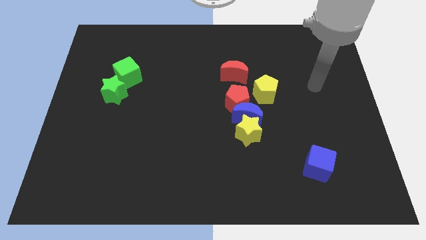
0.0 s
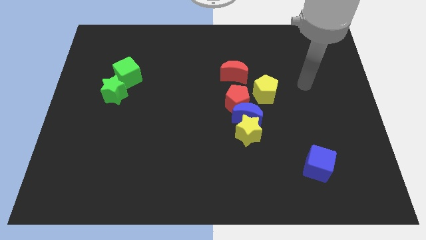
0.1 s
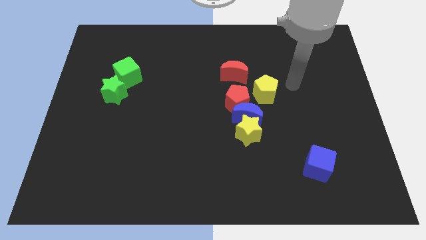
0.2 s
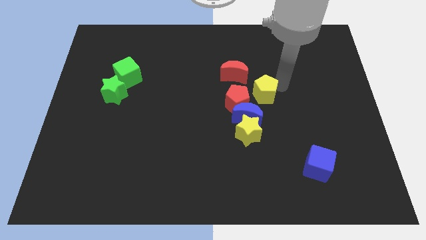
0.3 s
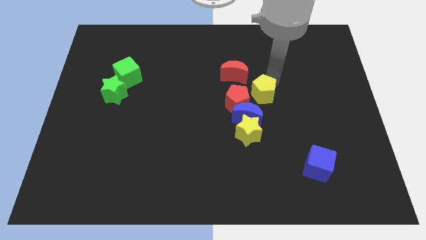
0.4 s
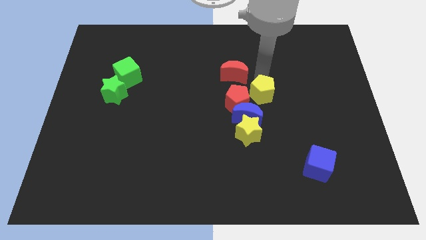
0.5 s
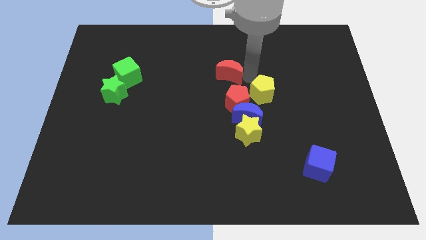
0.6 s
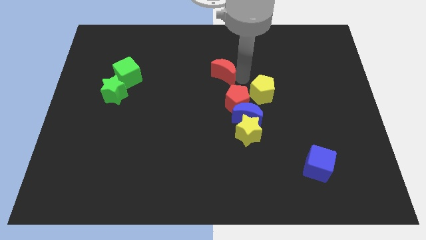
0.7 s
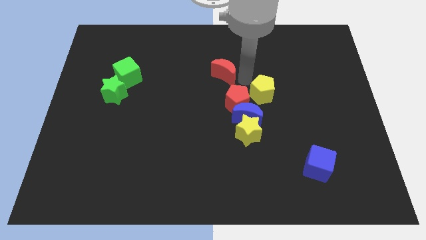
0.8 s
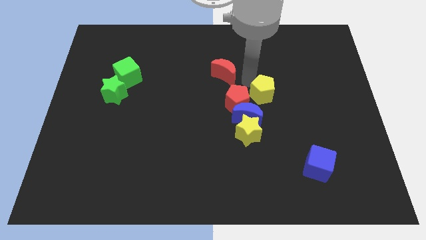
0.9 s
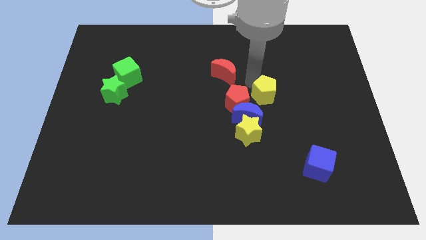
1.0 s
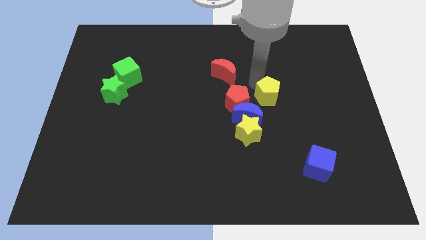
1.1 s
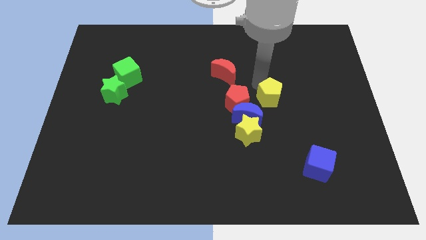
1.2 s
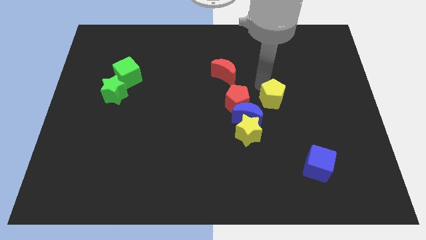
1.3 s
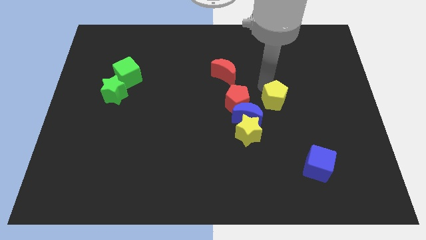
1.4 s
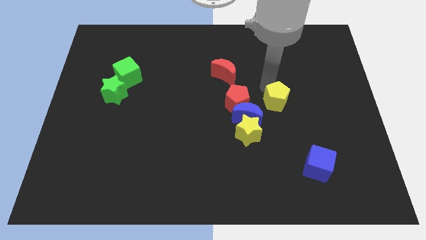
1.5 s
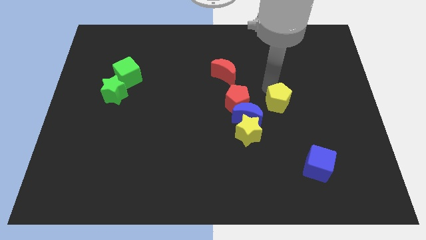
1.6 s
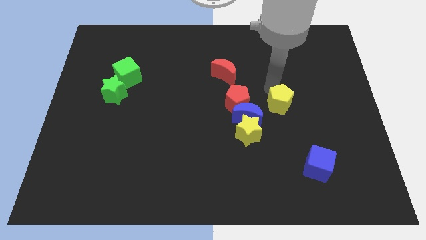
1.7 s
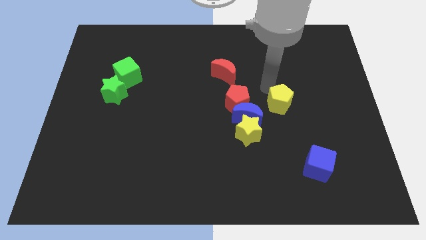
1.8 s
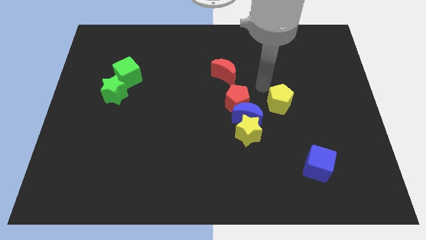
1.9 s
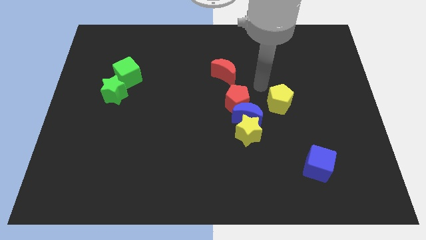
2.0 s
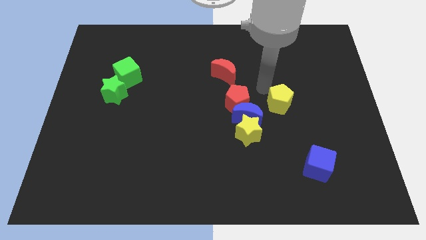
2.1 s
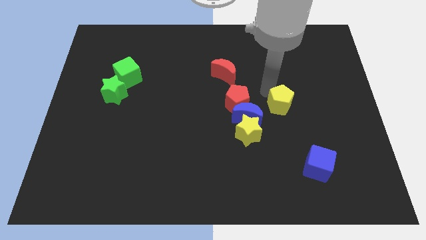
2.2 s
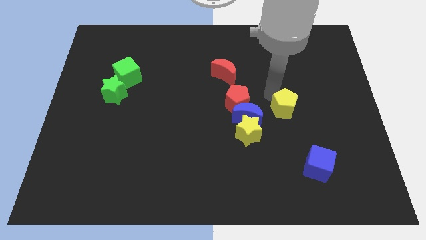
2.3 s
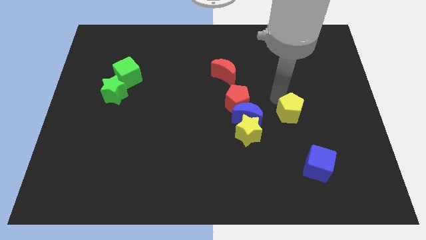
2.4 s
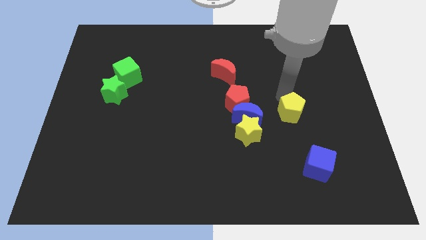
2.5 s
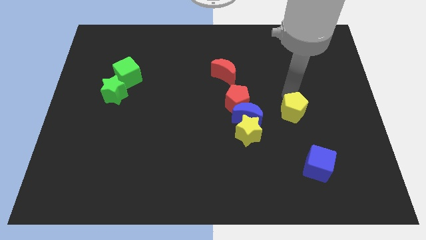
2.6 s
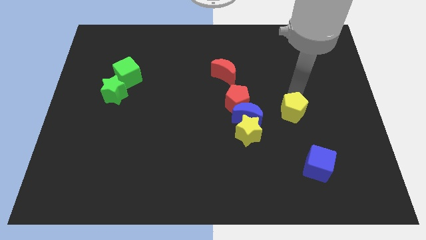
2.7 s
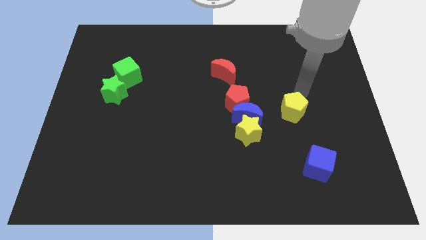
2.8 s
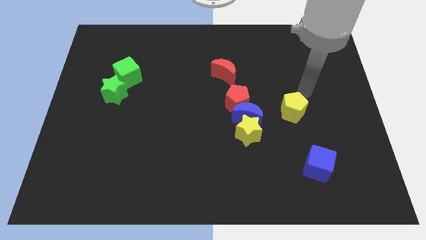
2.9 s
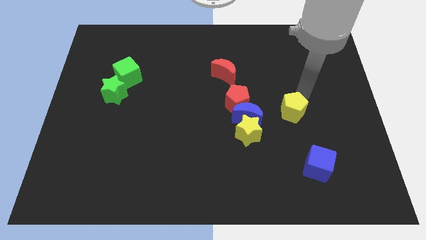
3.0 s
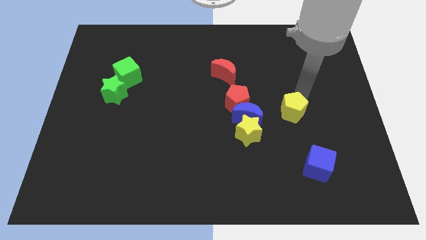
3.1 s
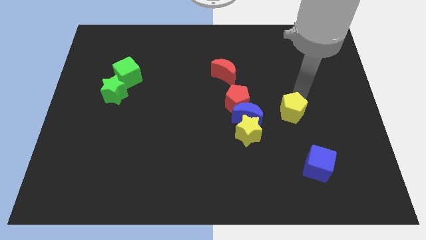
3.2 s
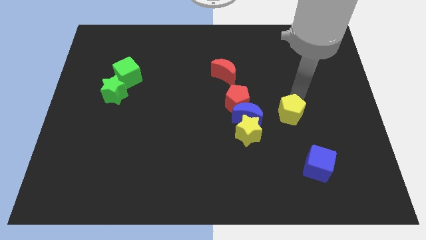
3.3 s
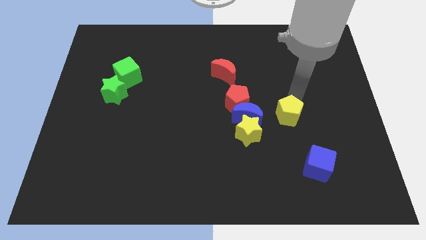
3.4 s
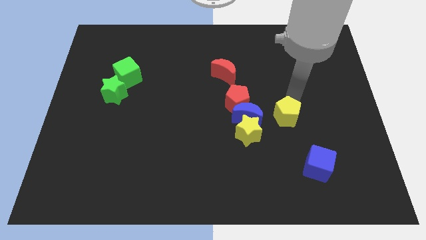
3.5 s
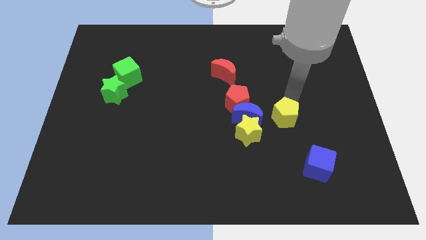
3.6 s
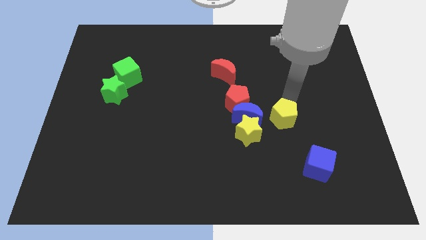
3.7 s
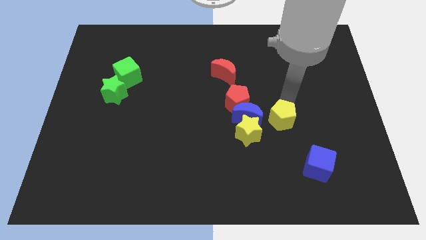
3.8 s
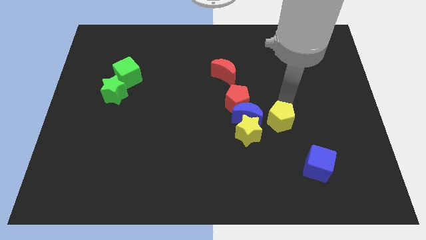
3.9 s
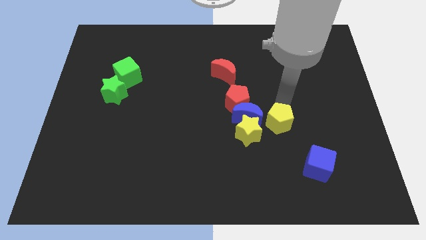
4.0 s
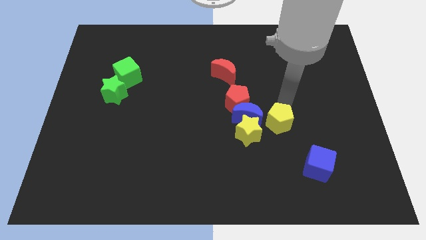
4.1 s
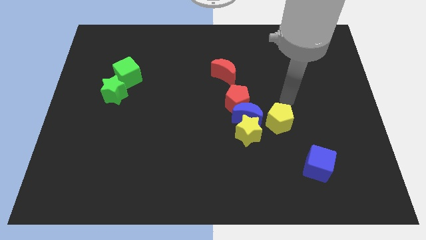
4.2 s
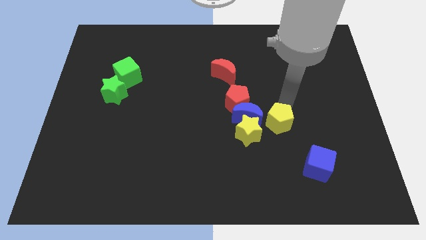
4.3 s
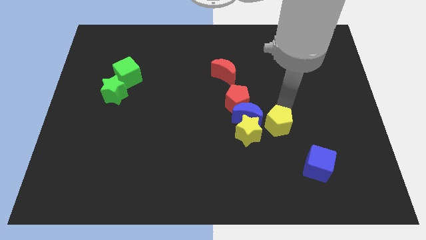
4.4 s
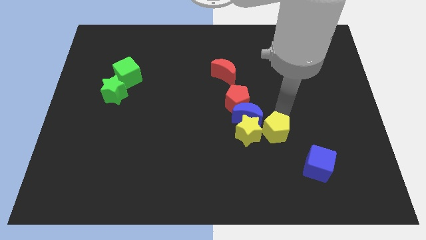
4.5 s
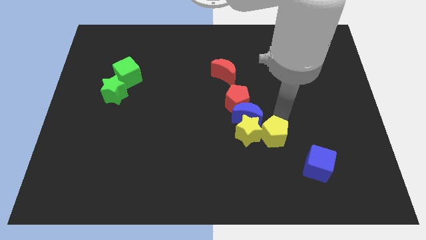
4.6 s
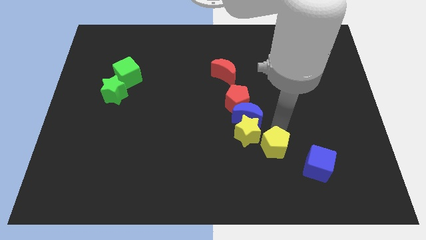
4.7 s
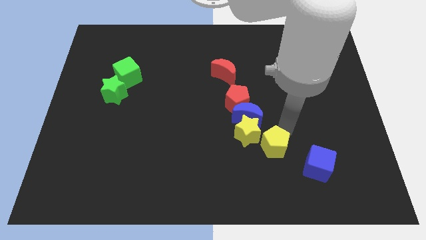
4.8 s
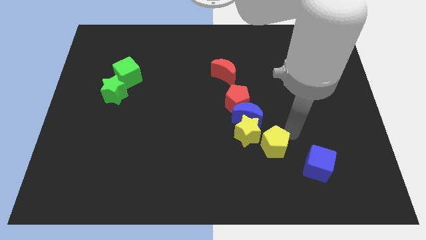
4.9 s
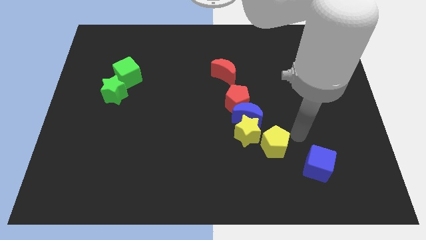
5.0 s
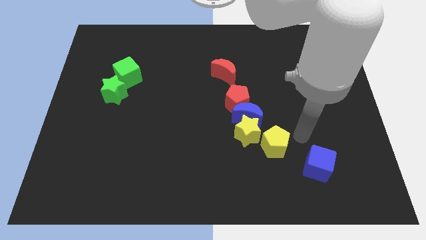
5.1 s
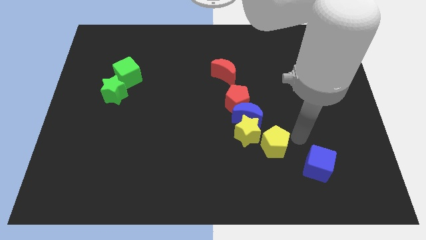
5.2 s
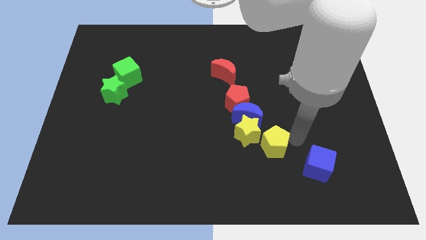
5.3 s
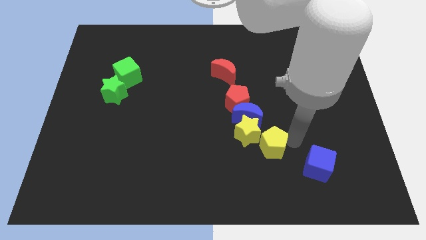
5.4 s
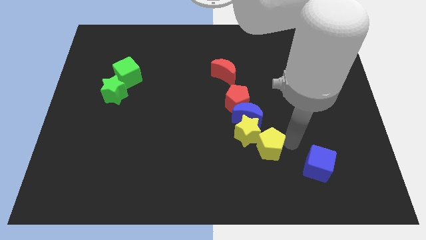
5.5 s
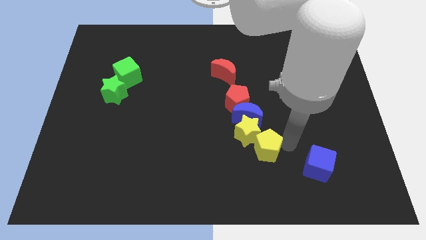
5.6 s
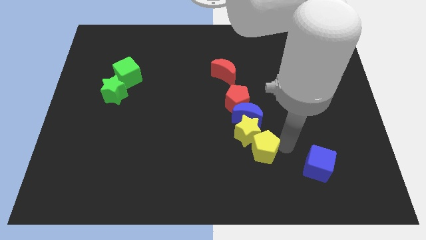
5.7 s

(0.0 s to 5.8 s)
slide the yellow pentagon a little downwards and then left

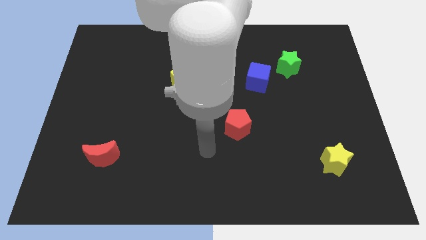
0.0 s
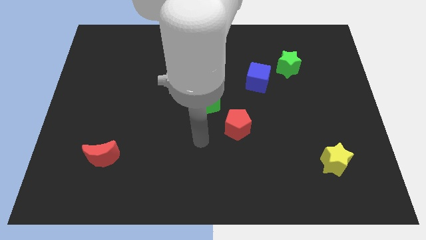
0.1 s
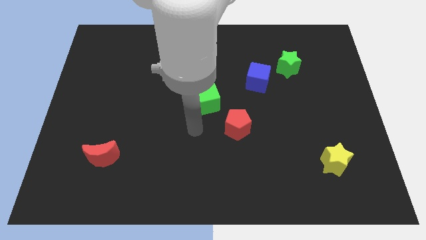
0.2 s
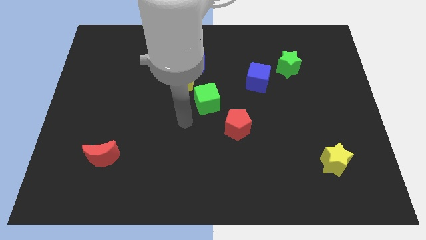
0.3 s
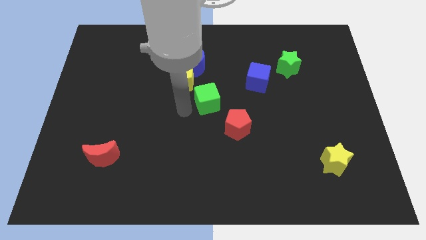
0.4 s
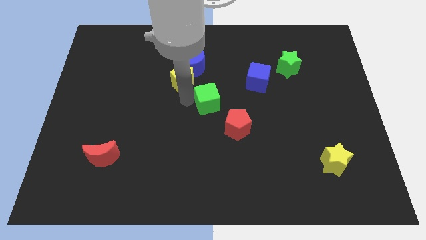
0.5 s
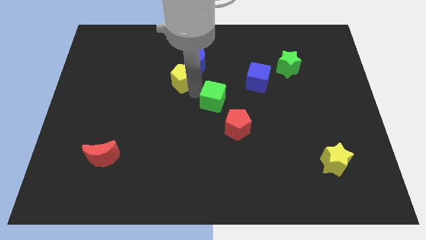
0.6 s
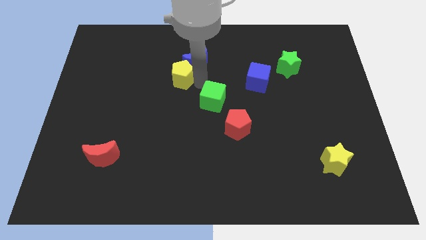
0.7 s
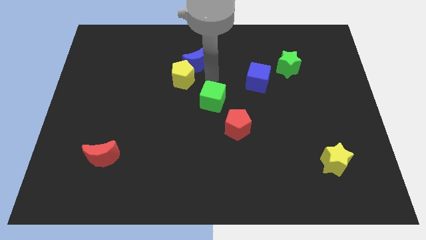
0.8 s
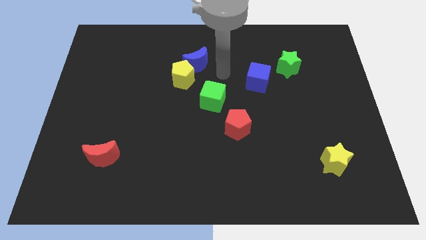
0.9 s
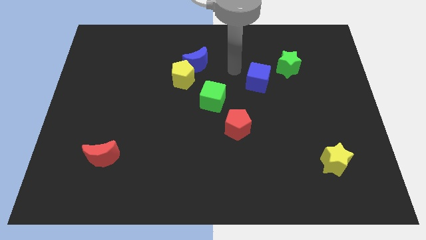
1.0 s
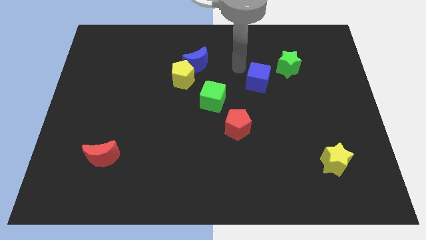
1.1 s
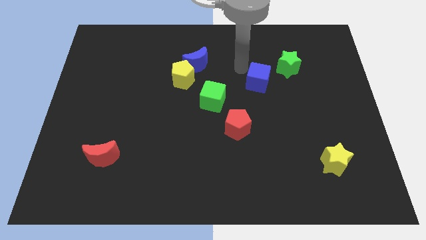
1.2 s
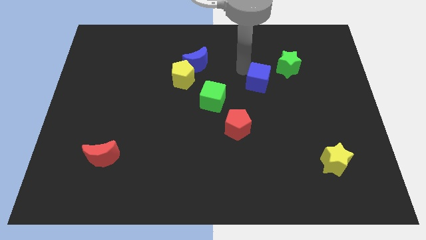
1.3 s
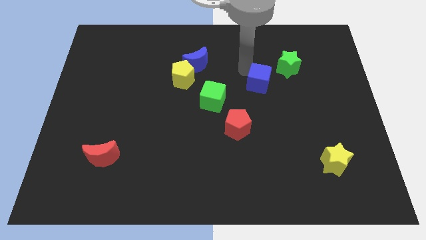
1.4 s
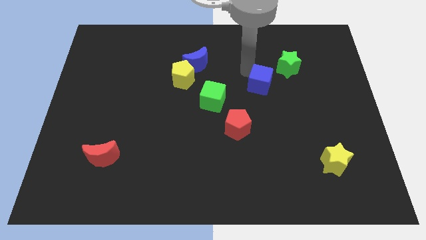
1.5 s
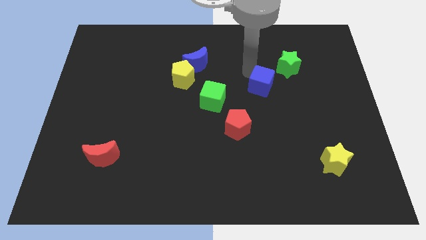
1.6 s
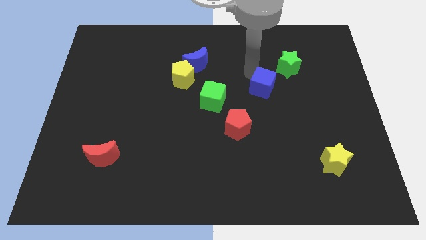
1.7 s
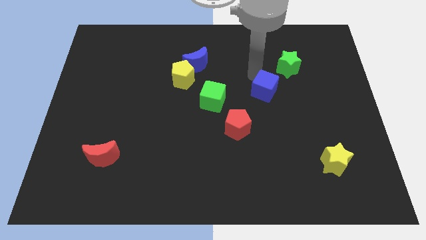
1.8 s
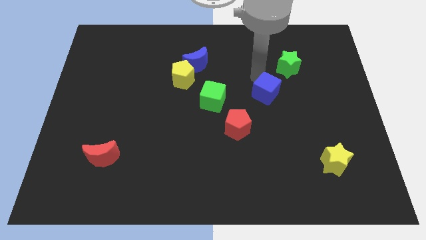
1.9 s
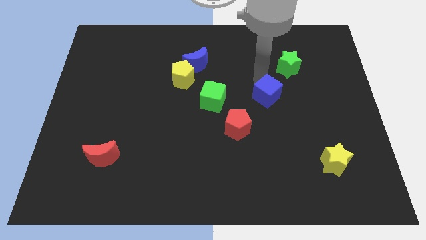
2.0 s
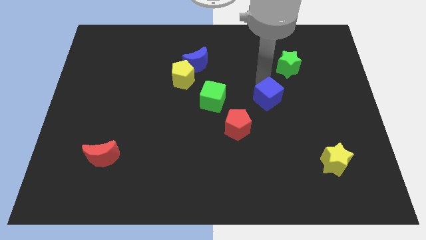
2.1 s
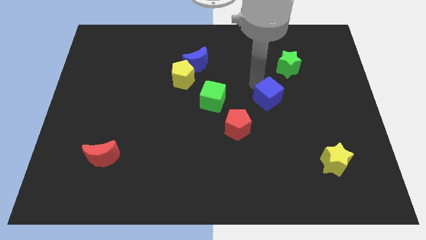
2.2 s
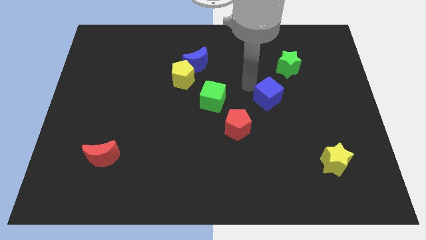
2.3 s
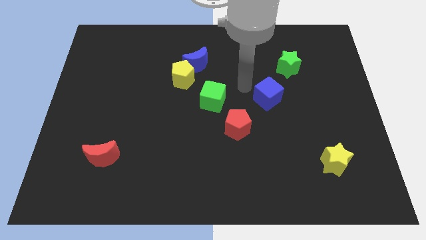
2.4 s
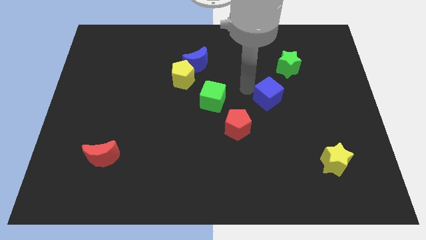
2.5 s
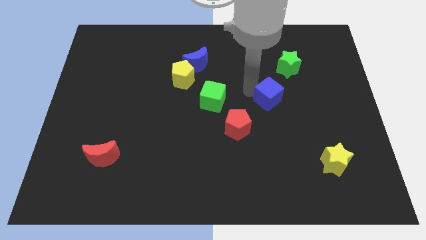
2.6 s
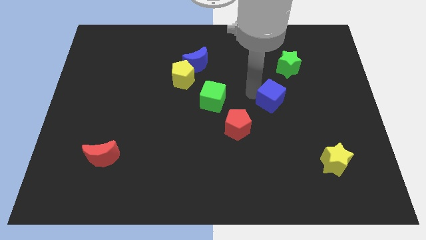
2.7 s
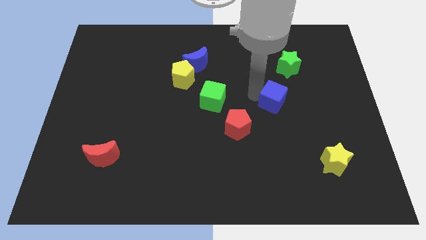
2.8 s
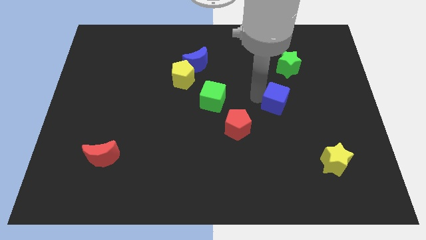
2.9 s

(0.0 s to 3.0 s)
move the blue cube somewhat down and right
